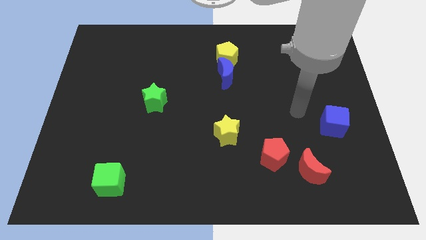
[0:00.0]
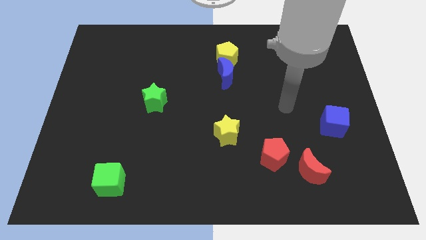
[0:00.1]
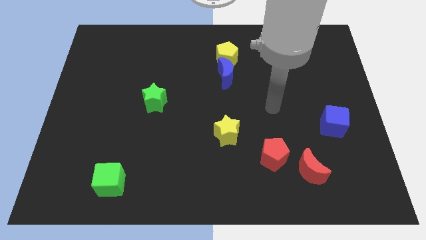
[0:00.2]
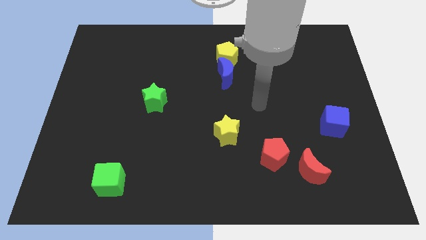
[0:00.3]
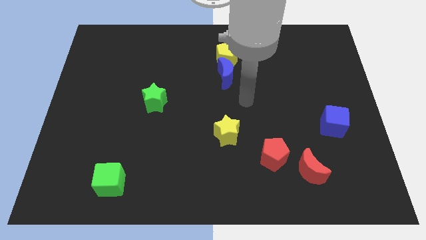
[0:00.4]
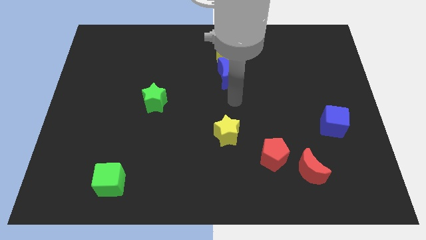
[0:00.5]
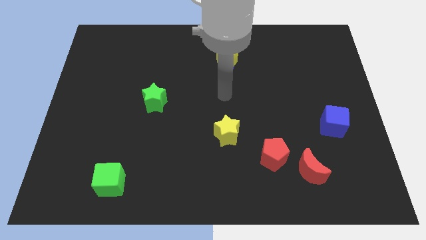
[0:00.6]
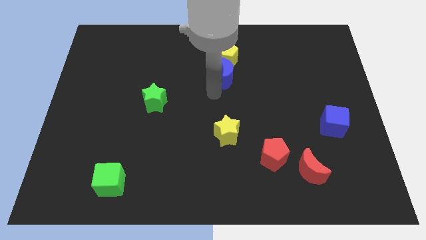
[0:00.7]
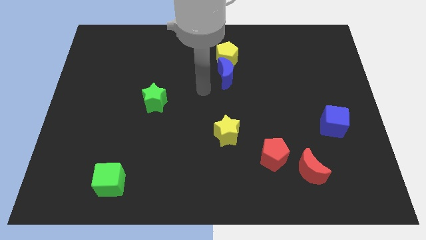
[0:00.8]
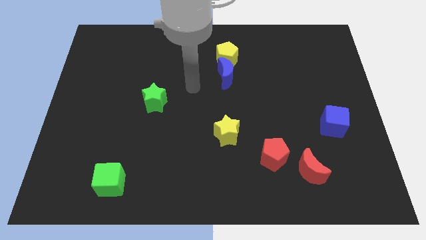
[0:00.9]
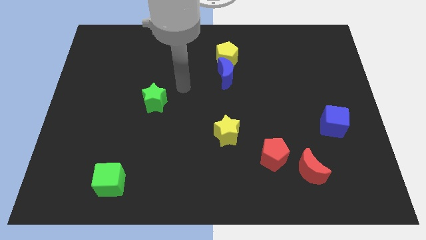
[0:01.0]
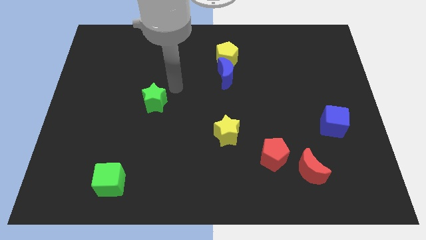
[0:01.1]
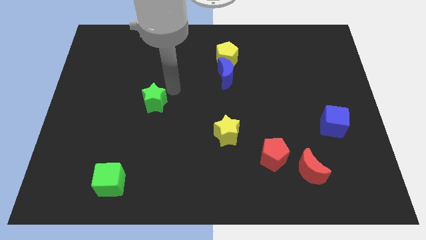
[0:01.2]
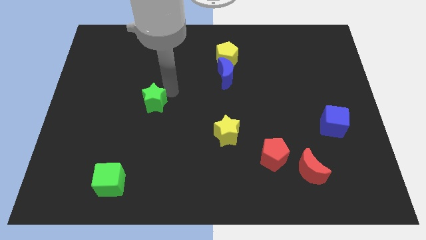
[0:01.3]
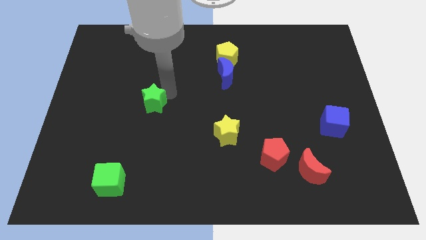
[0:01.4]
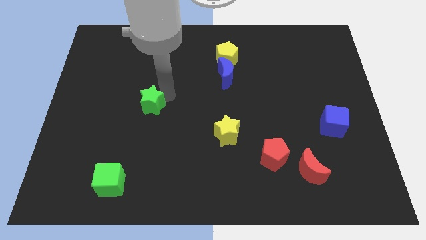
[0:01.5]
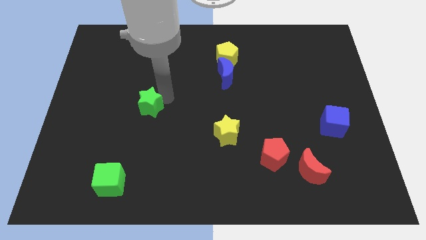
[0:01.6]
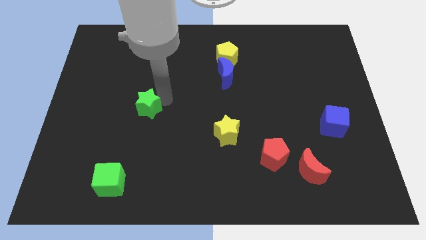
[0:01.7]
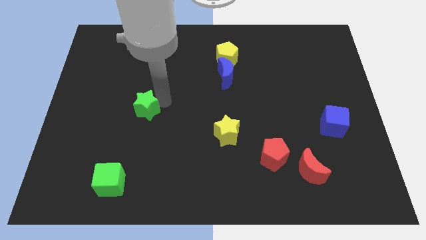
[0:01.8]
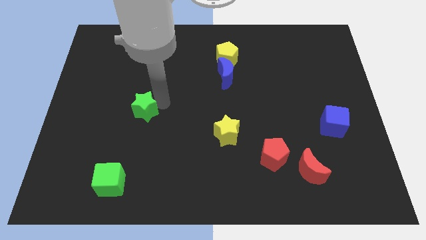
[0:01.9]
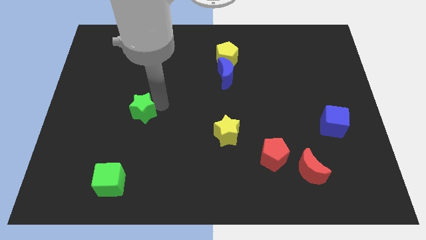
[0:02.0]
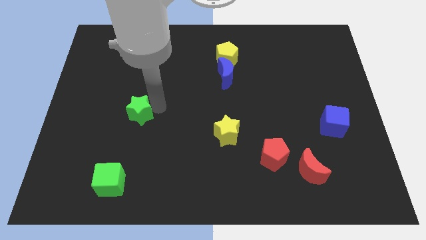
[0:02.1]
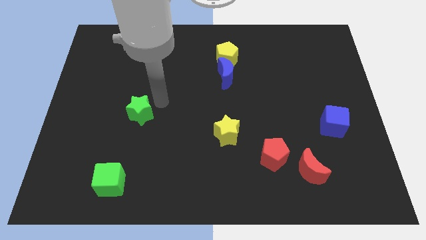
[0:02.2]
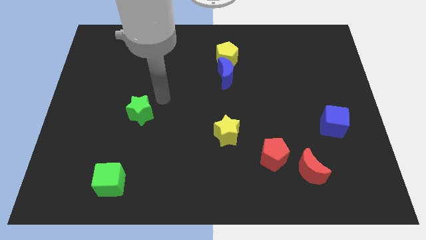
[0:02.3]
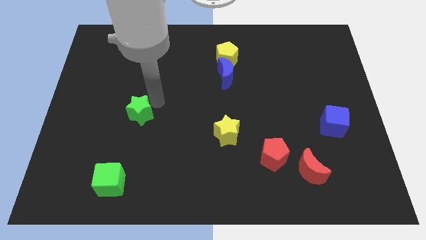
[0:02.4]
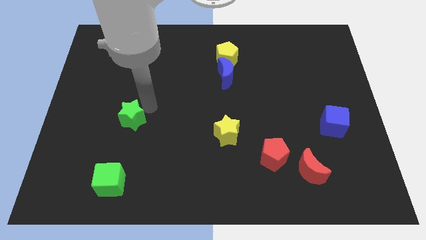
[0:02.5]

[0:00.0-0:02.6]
move the green star down and then to the left a bit

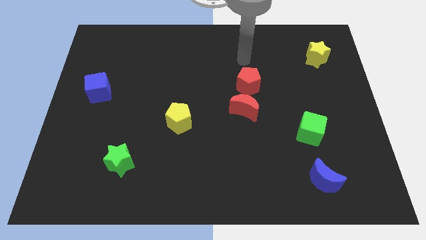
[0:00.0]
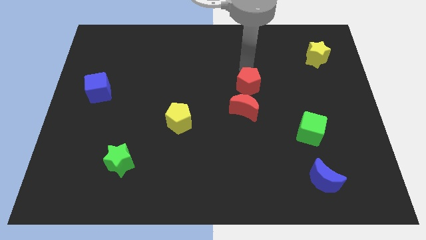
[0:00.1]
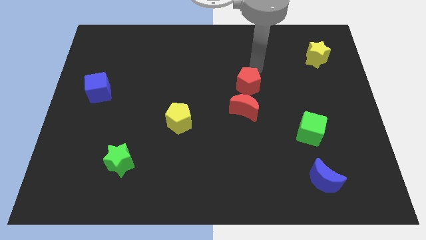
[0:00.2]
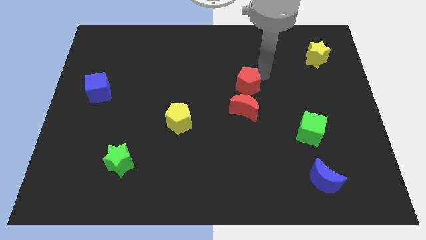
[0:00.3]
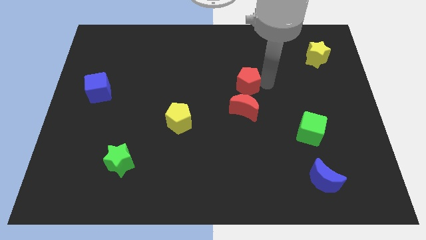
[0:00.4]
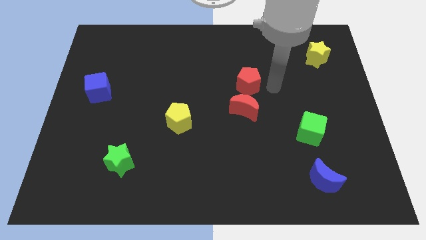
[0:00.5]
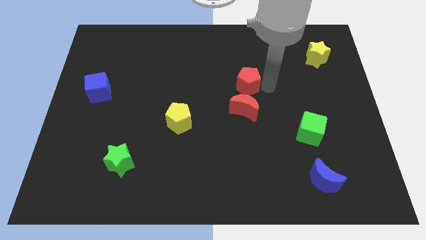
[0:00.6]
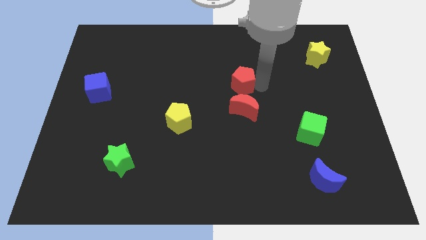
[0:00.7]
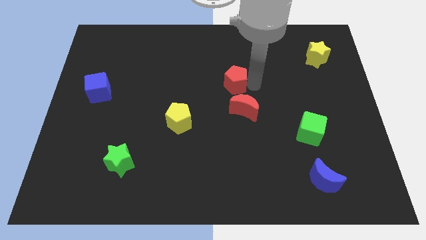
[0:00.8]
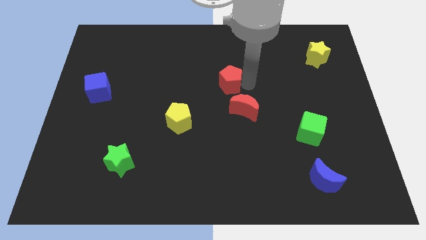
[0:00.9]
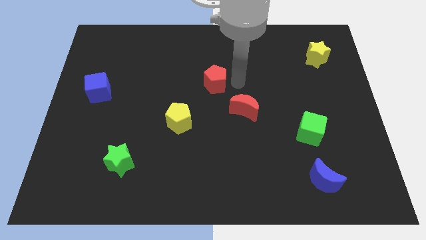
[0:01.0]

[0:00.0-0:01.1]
move the red pentagon a little left

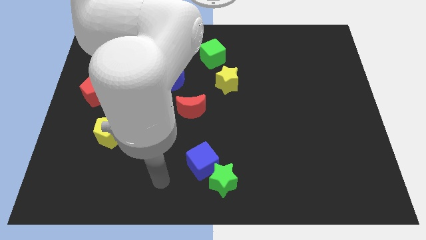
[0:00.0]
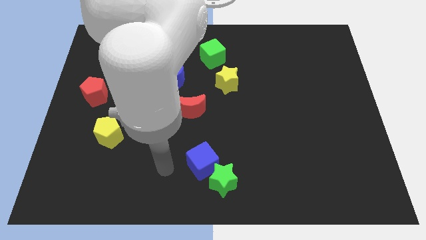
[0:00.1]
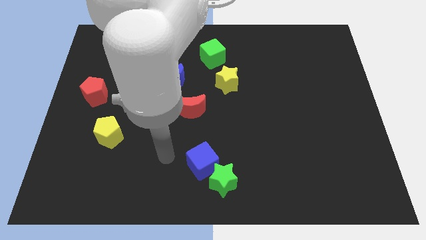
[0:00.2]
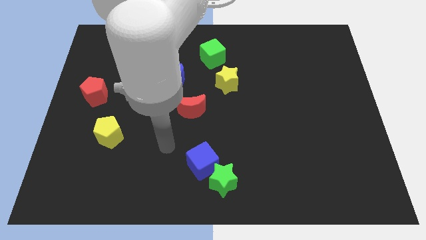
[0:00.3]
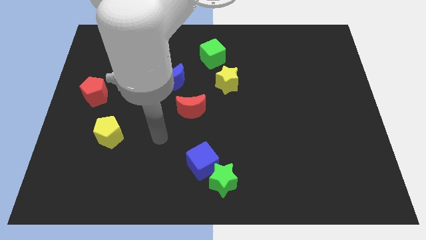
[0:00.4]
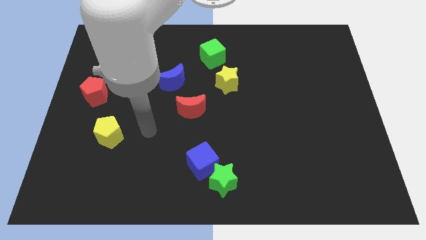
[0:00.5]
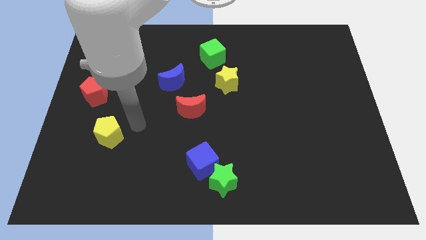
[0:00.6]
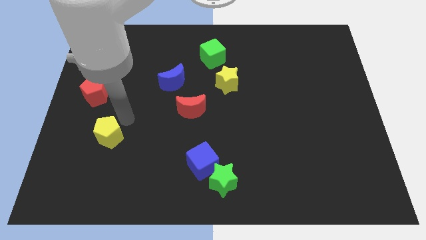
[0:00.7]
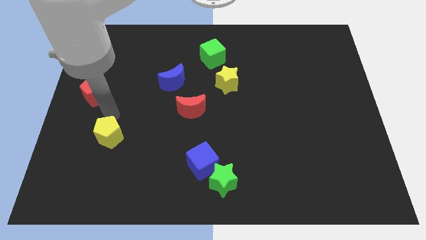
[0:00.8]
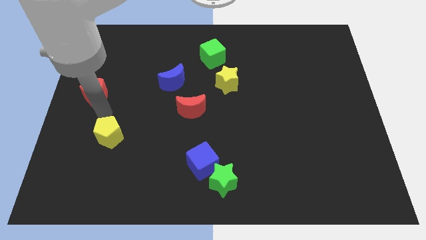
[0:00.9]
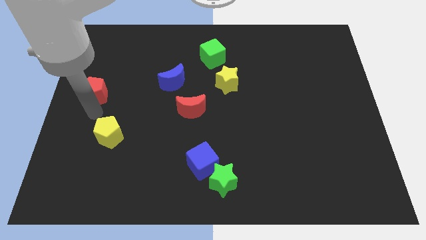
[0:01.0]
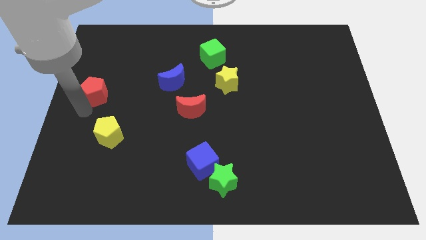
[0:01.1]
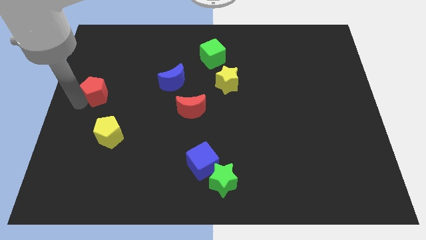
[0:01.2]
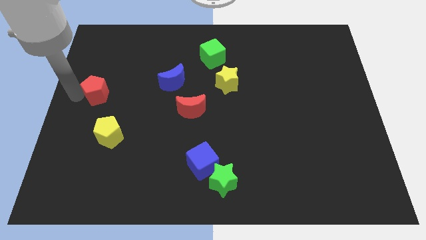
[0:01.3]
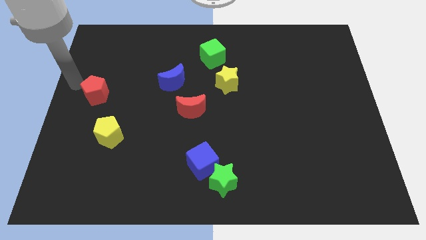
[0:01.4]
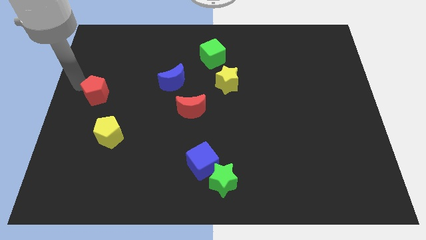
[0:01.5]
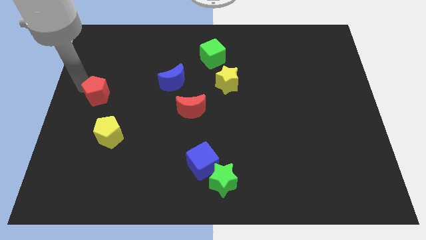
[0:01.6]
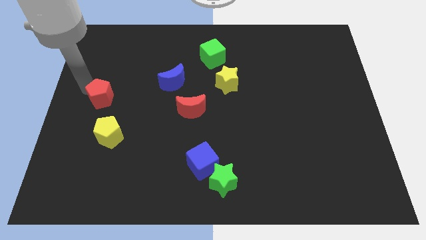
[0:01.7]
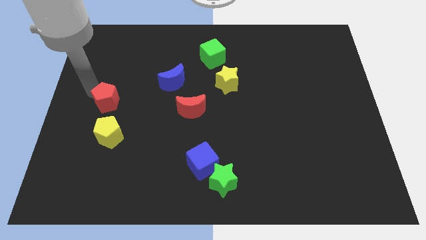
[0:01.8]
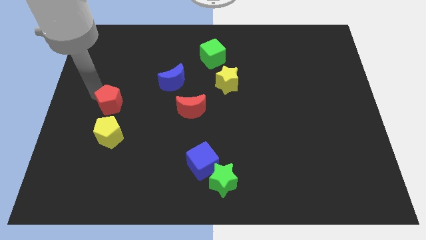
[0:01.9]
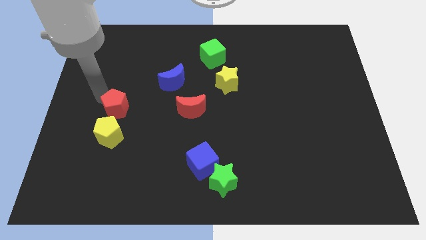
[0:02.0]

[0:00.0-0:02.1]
slightly move the red pentagon downwards and then to the right

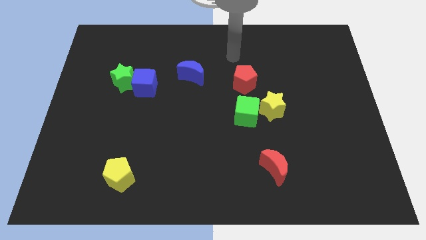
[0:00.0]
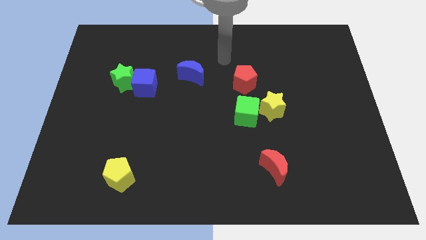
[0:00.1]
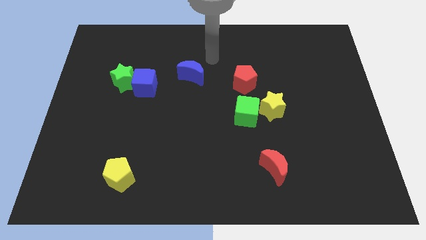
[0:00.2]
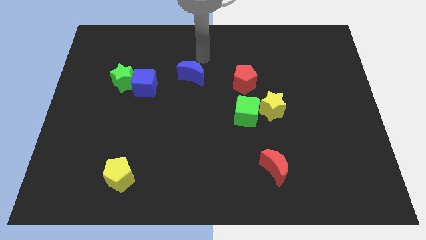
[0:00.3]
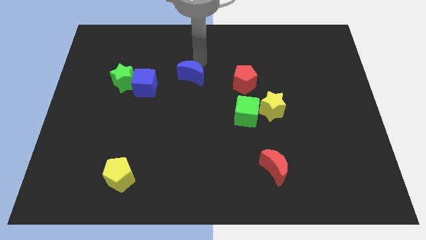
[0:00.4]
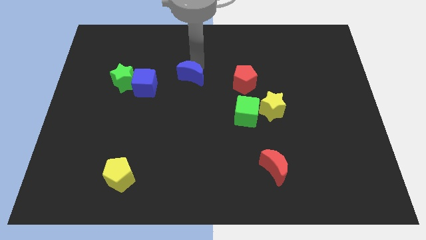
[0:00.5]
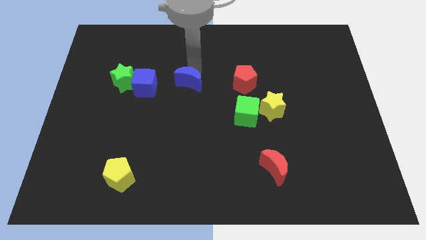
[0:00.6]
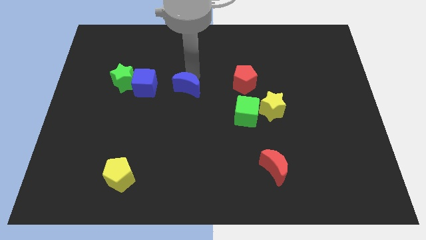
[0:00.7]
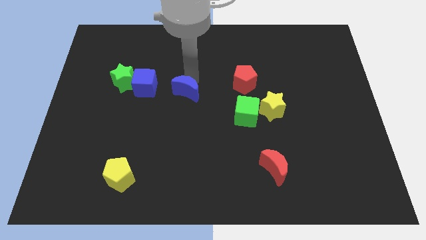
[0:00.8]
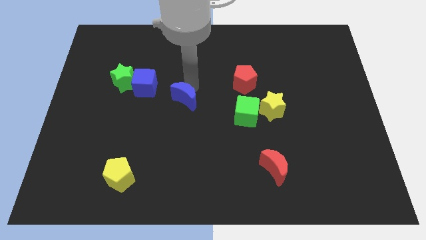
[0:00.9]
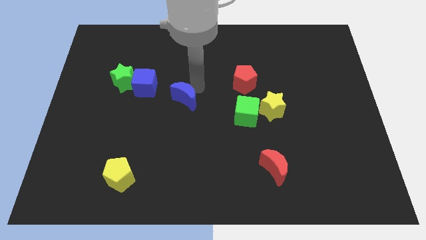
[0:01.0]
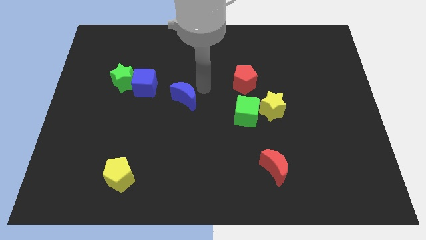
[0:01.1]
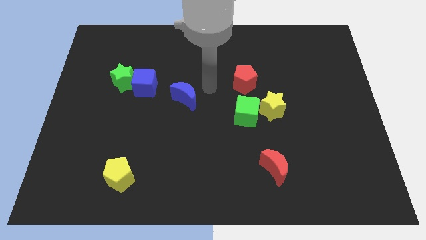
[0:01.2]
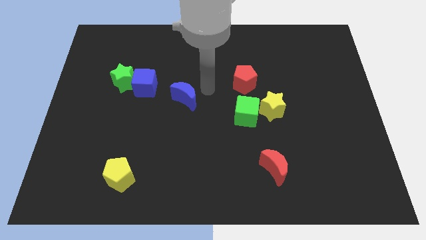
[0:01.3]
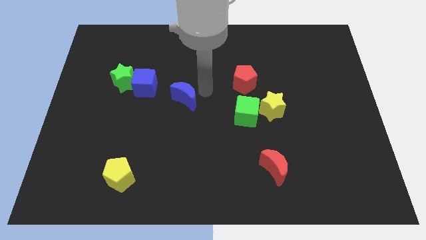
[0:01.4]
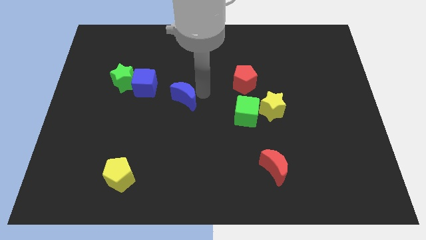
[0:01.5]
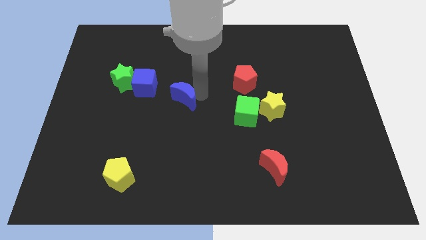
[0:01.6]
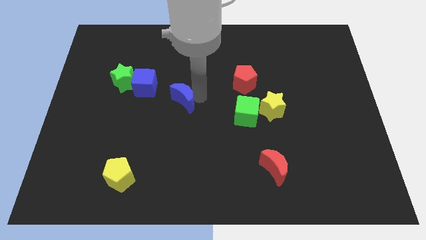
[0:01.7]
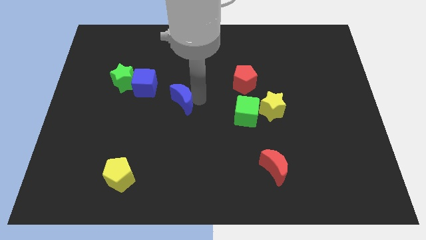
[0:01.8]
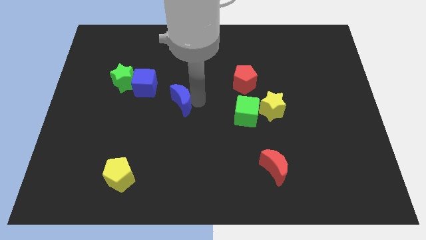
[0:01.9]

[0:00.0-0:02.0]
slightly push the blue moon down and to the left

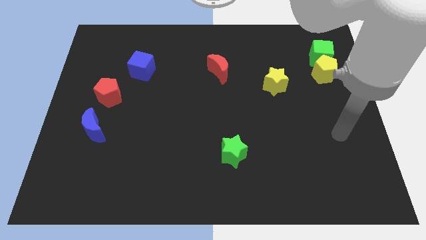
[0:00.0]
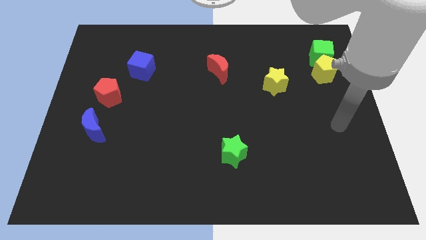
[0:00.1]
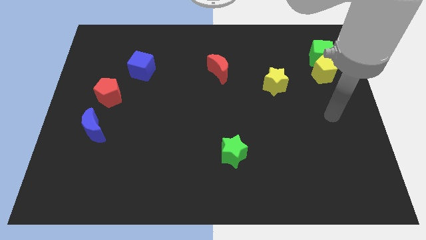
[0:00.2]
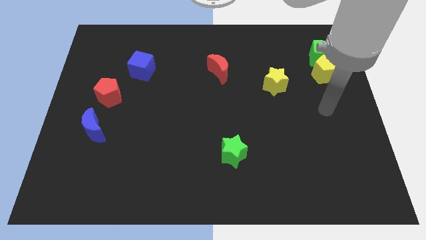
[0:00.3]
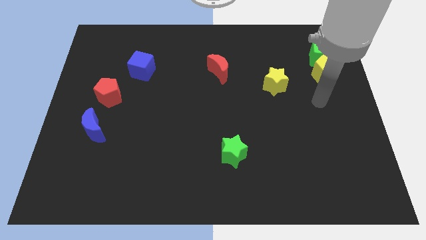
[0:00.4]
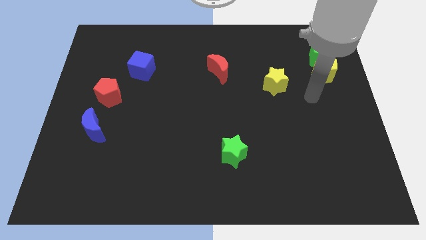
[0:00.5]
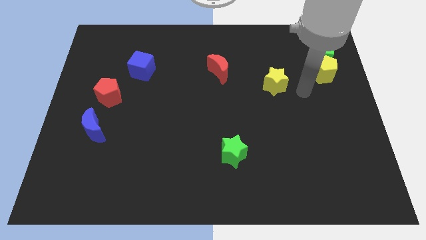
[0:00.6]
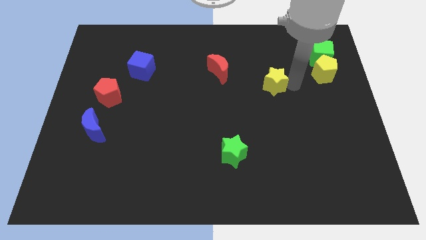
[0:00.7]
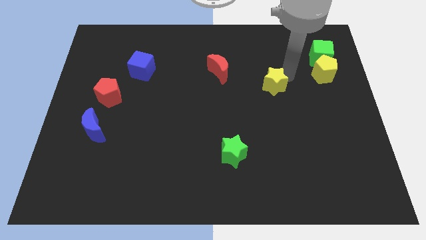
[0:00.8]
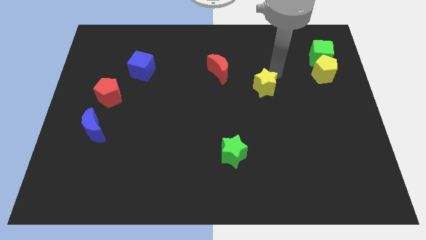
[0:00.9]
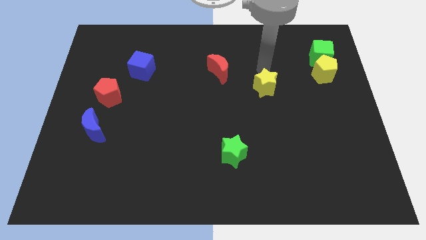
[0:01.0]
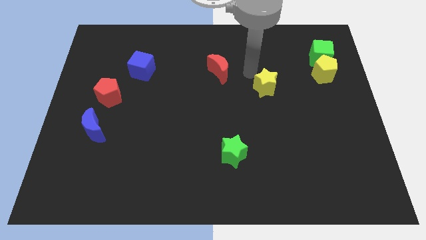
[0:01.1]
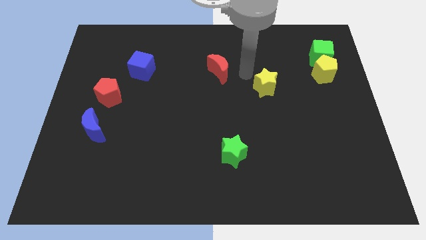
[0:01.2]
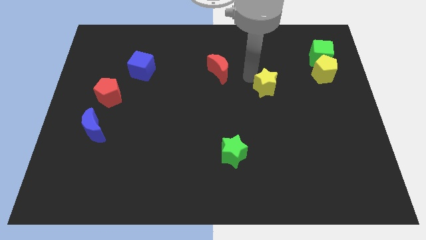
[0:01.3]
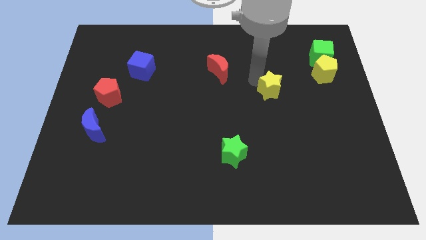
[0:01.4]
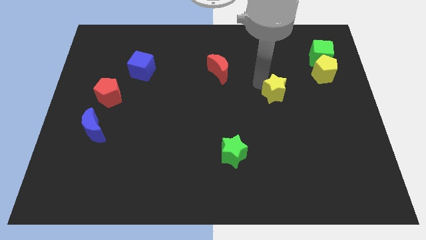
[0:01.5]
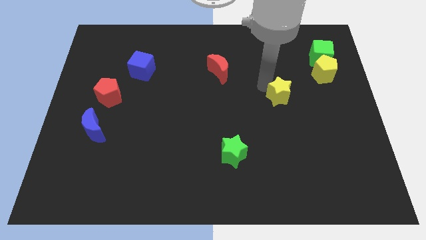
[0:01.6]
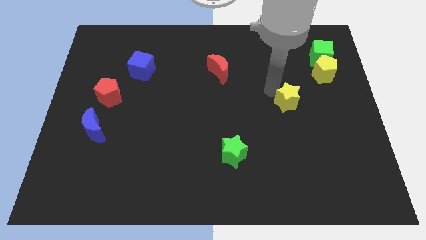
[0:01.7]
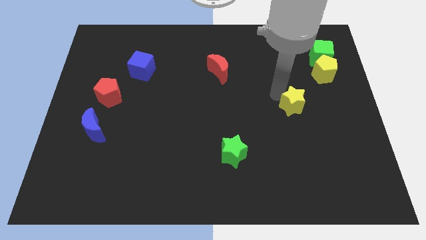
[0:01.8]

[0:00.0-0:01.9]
slide the yellow star a little bit downwards and then to the right
